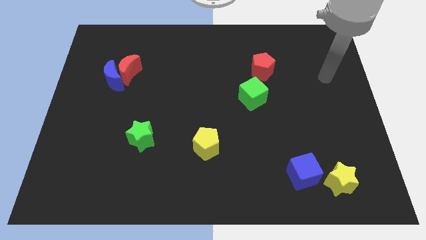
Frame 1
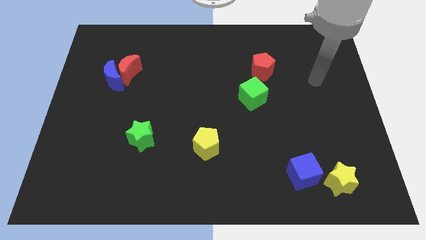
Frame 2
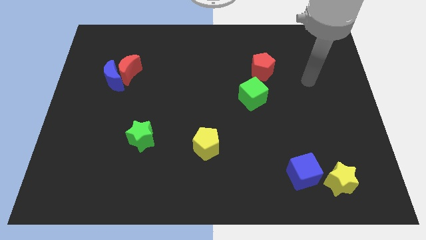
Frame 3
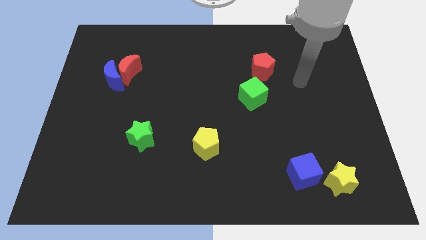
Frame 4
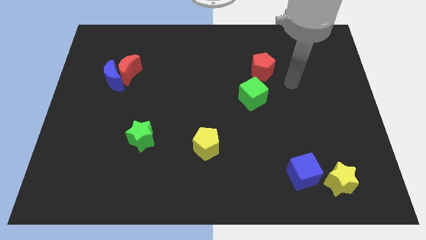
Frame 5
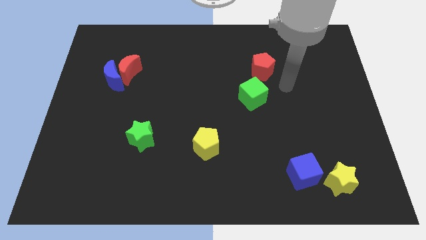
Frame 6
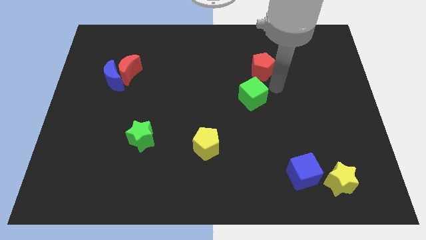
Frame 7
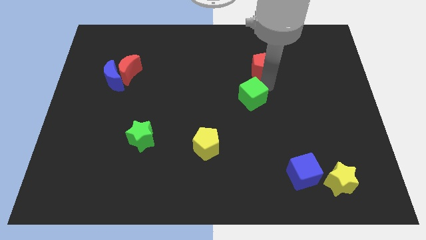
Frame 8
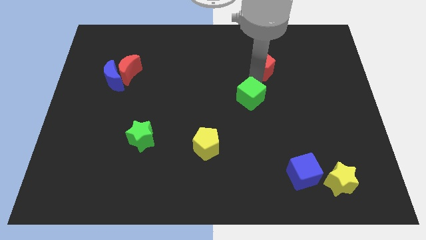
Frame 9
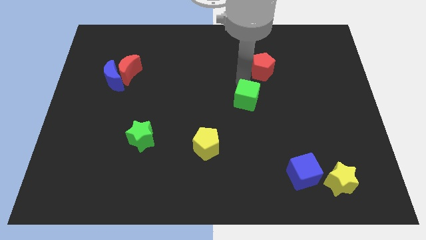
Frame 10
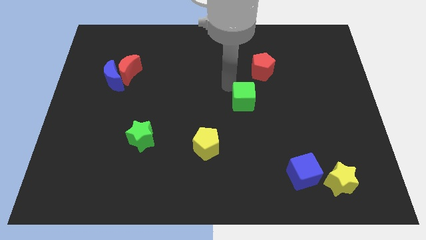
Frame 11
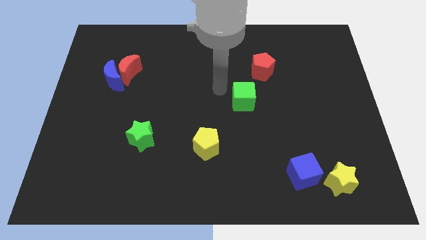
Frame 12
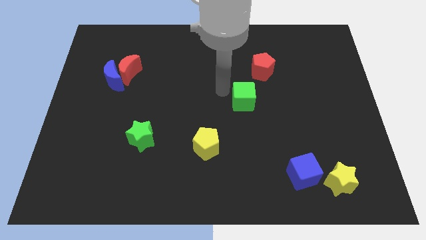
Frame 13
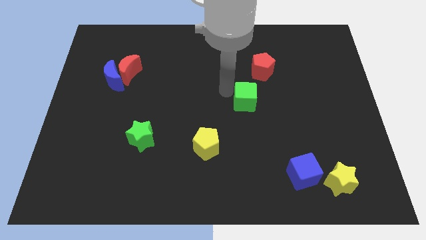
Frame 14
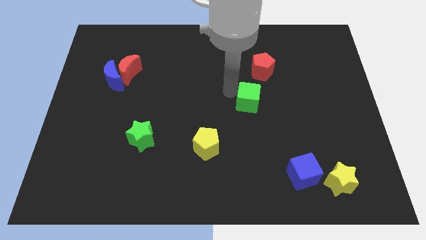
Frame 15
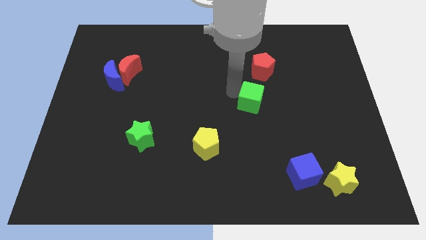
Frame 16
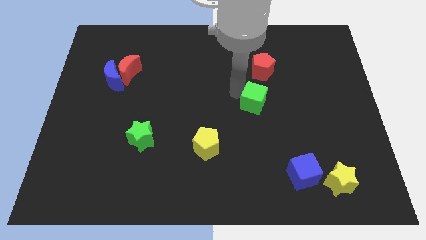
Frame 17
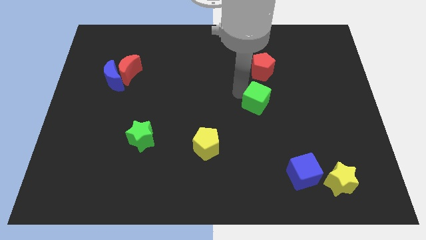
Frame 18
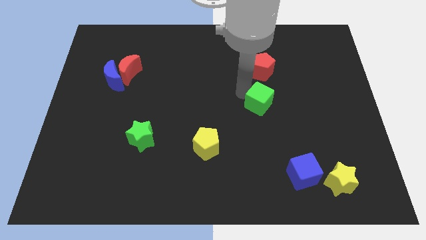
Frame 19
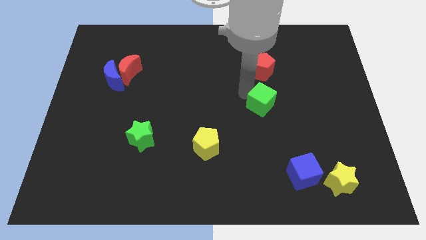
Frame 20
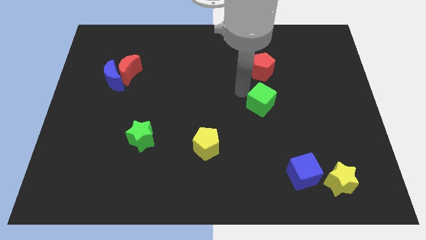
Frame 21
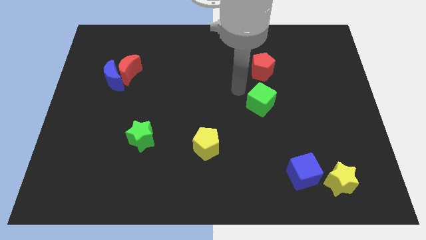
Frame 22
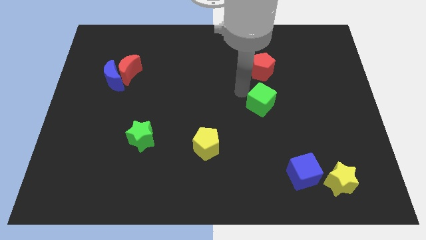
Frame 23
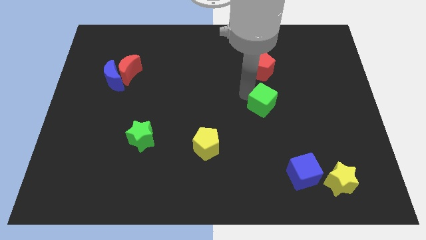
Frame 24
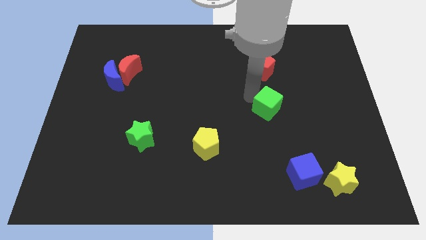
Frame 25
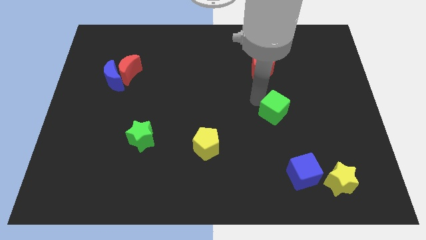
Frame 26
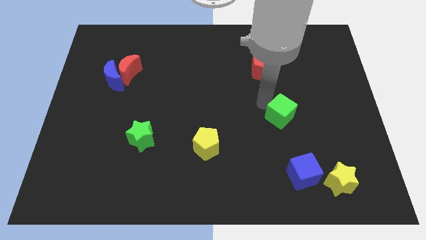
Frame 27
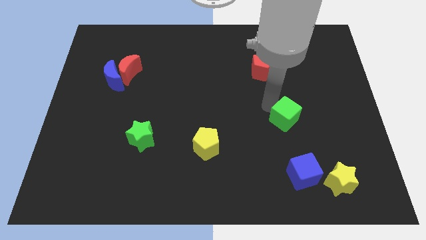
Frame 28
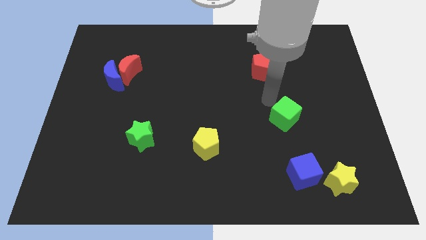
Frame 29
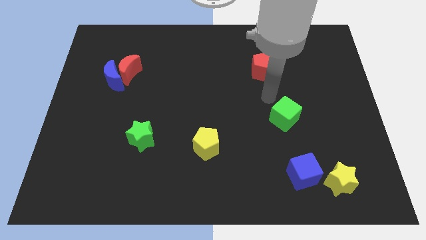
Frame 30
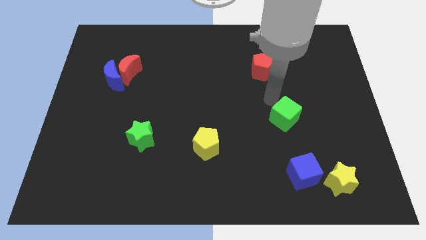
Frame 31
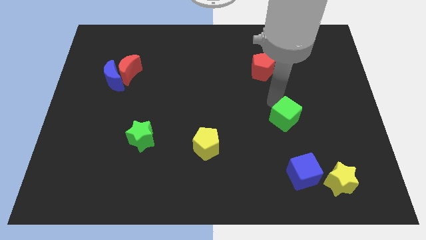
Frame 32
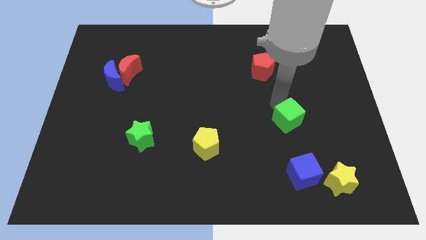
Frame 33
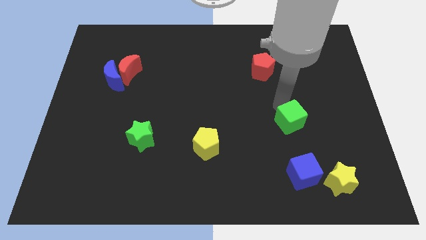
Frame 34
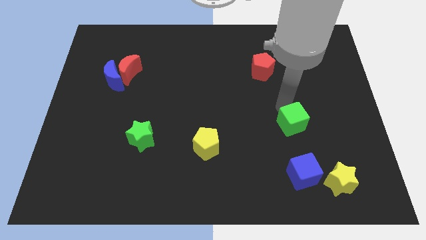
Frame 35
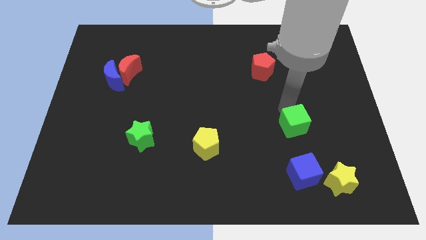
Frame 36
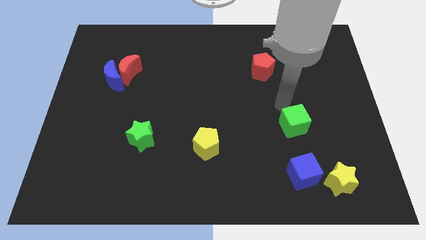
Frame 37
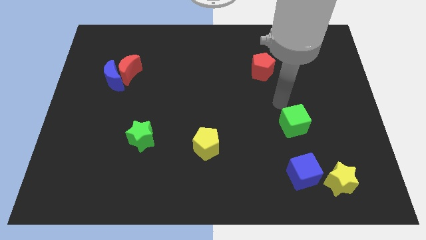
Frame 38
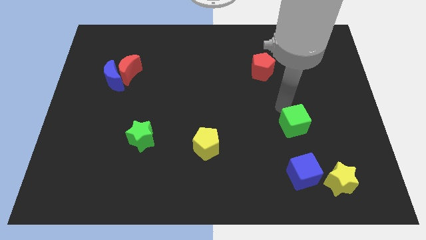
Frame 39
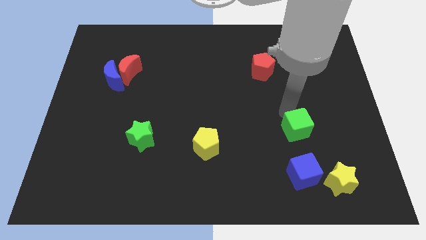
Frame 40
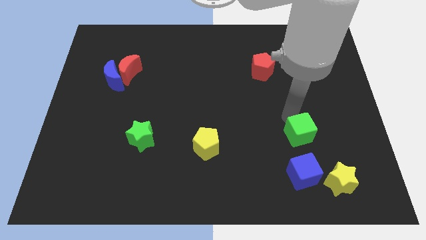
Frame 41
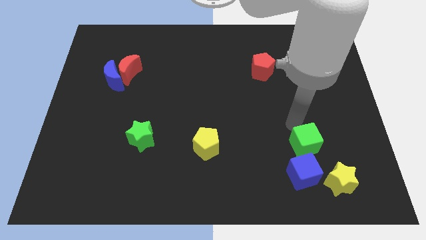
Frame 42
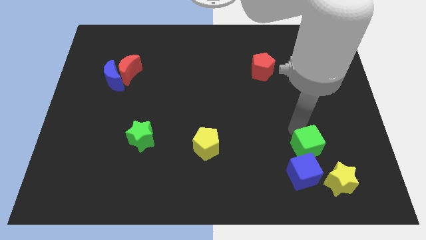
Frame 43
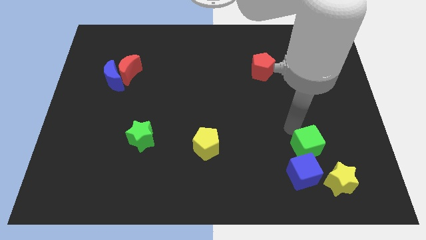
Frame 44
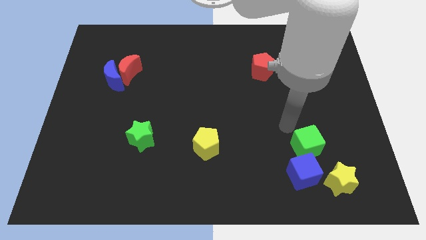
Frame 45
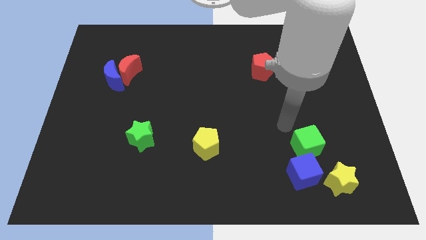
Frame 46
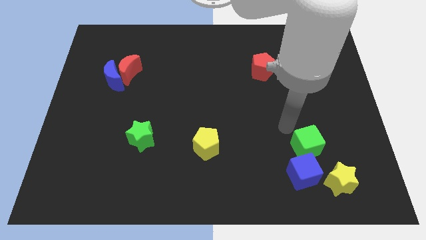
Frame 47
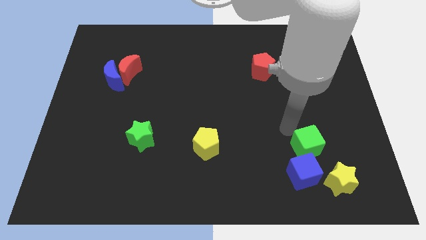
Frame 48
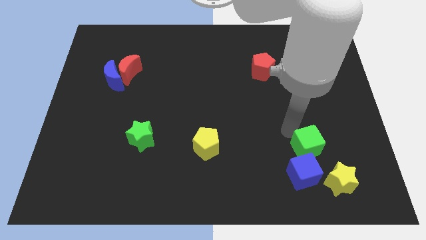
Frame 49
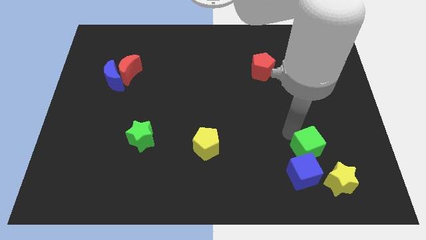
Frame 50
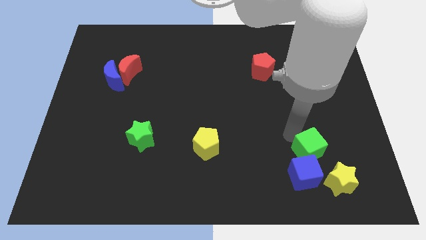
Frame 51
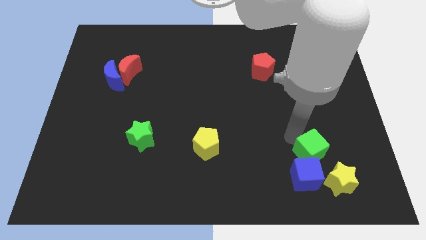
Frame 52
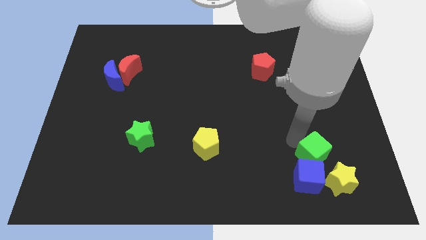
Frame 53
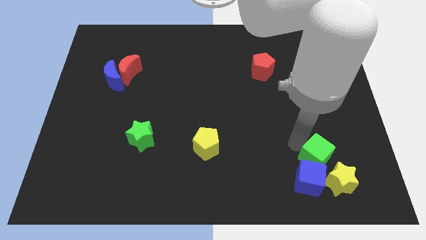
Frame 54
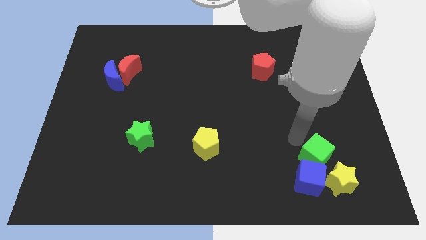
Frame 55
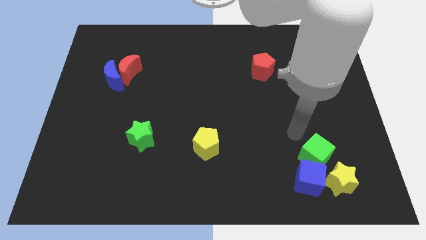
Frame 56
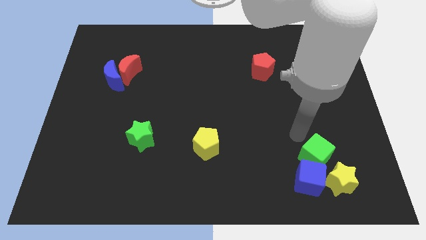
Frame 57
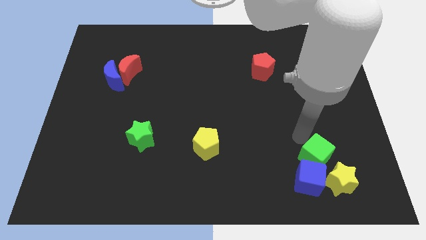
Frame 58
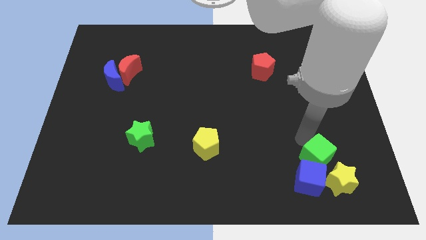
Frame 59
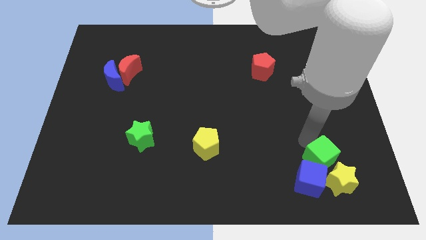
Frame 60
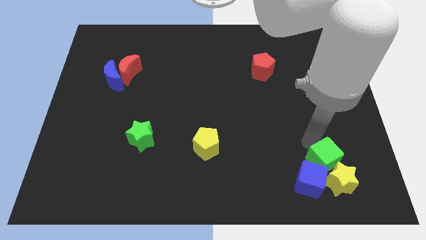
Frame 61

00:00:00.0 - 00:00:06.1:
slide the green cube close to the yellow star

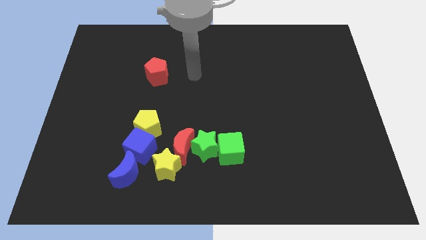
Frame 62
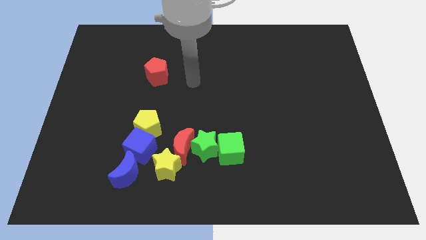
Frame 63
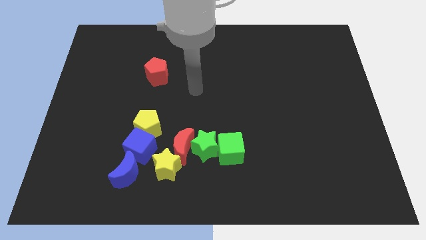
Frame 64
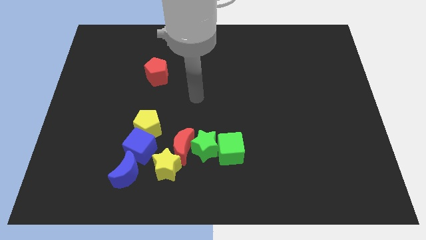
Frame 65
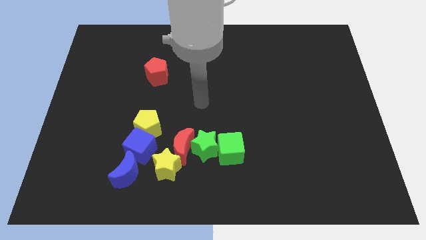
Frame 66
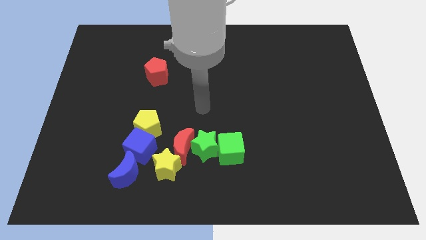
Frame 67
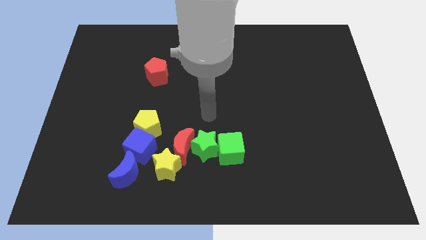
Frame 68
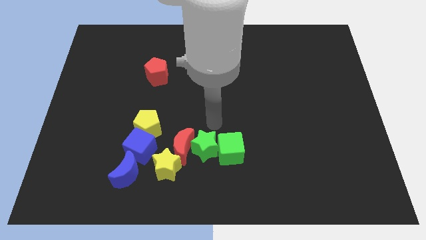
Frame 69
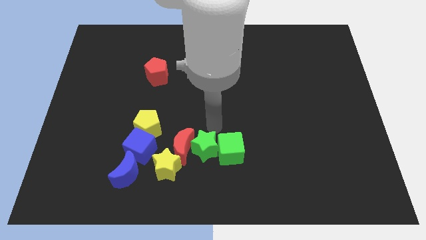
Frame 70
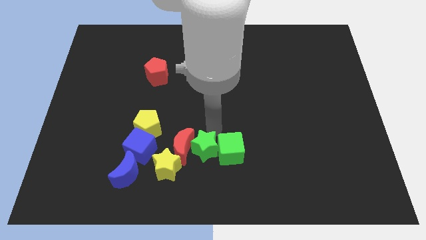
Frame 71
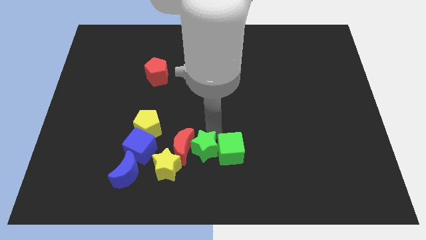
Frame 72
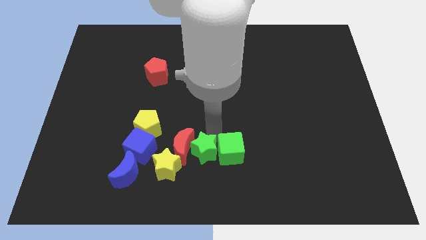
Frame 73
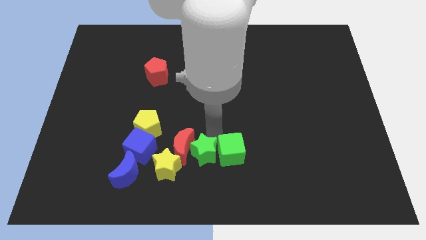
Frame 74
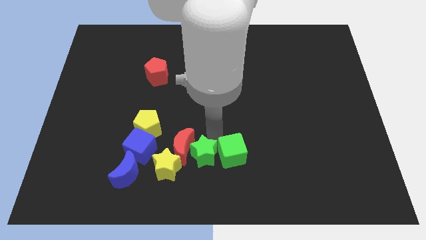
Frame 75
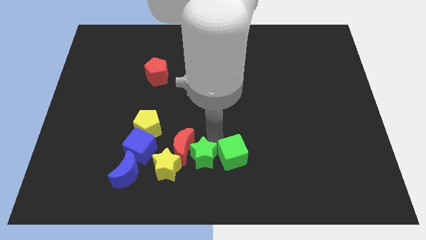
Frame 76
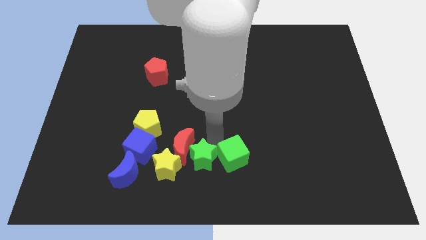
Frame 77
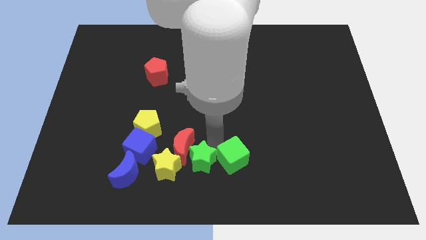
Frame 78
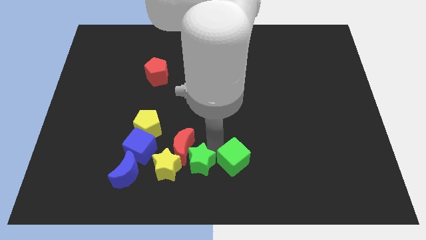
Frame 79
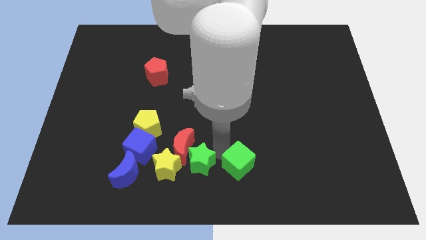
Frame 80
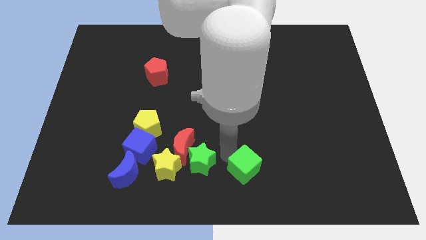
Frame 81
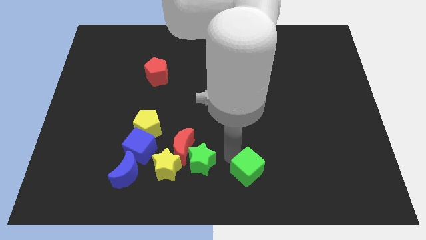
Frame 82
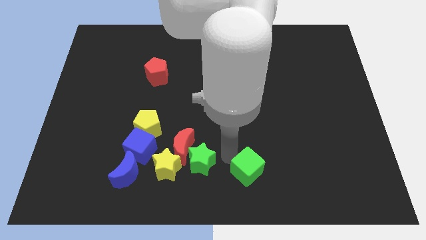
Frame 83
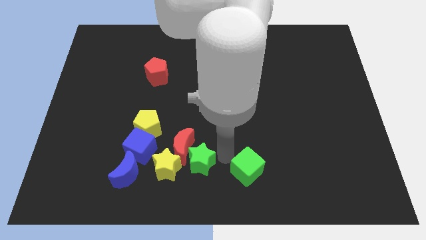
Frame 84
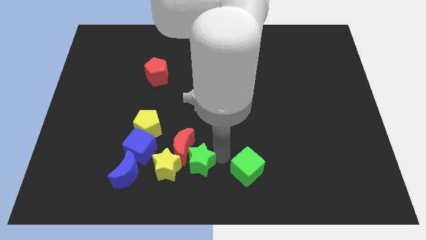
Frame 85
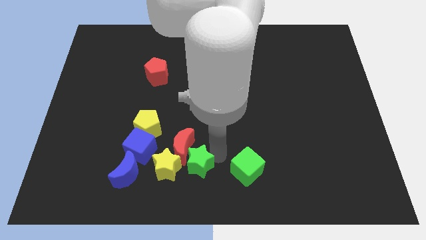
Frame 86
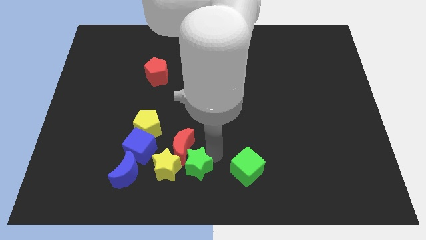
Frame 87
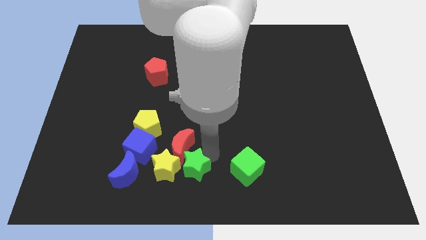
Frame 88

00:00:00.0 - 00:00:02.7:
move the green star close to the yellow star
